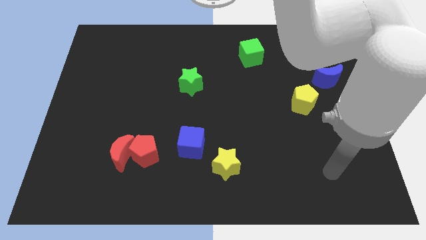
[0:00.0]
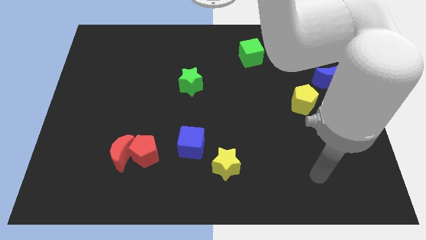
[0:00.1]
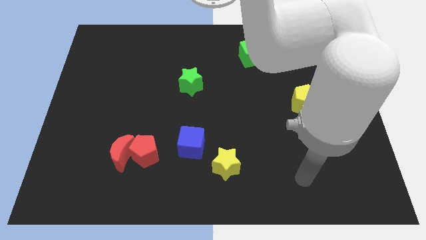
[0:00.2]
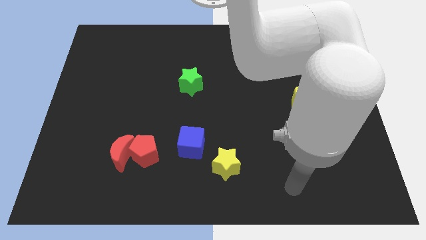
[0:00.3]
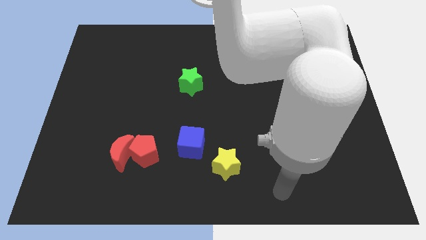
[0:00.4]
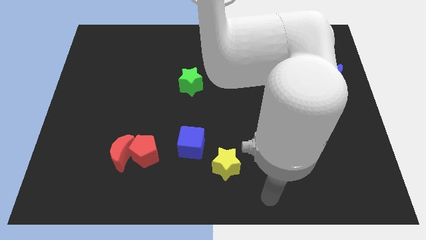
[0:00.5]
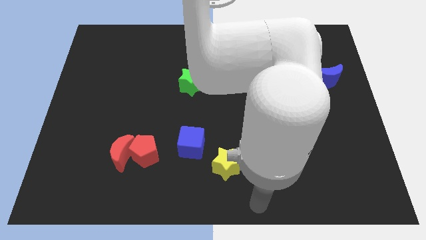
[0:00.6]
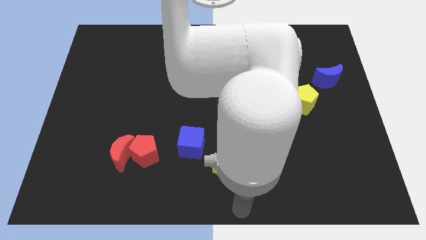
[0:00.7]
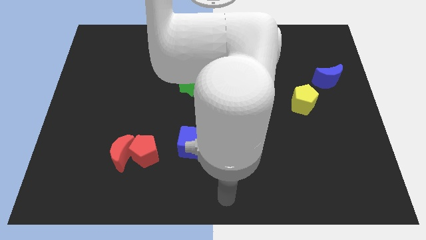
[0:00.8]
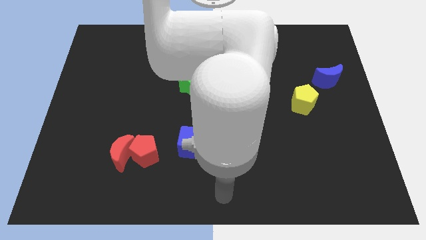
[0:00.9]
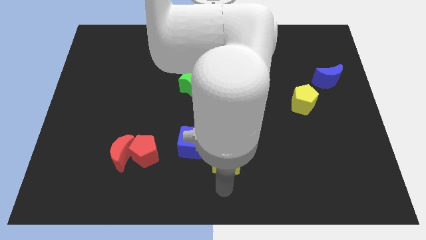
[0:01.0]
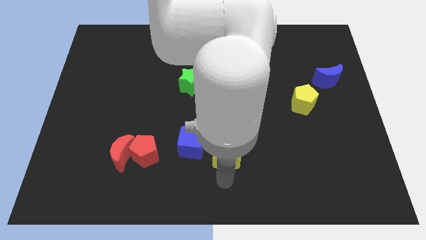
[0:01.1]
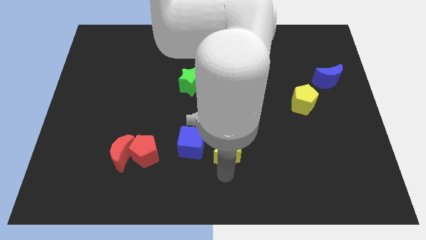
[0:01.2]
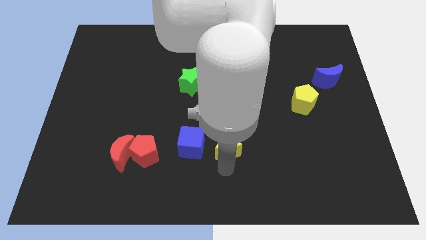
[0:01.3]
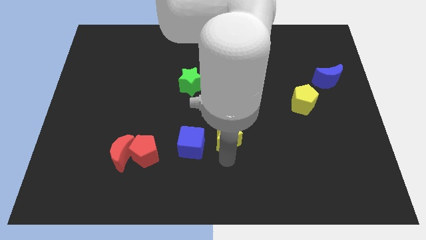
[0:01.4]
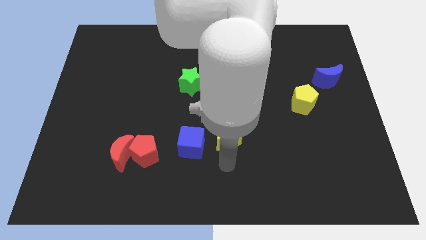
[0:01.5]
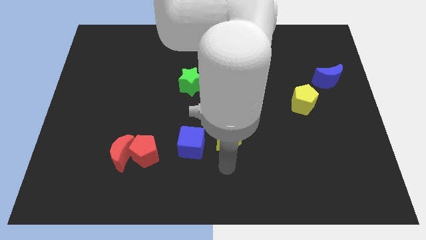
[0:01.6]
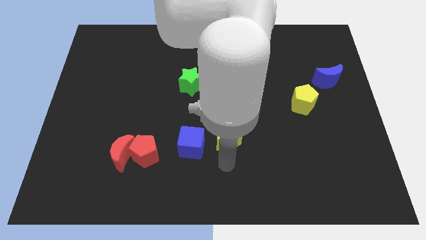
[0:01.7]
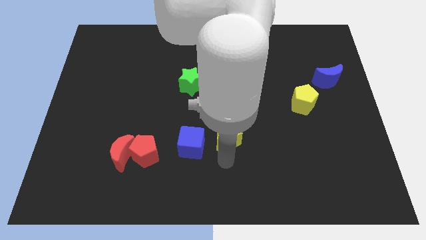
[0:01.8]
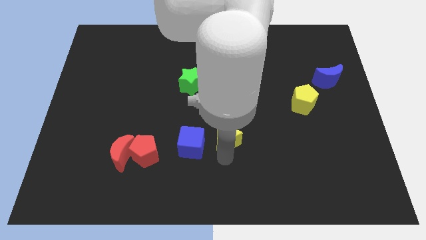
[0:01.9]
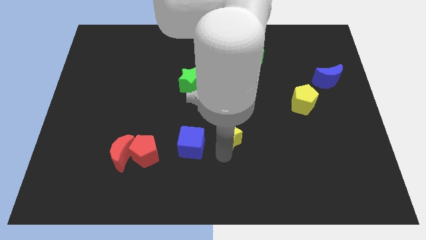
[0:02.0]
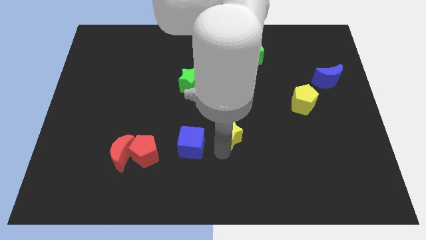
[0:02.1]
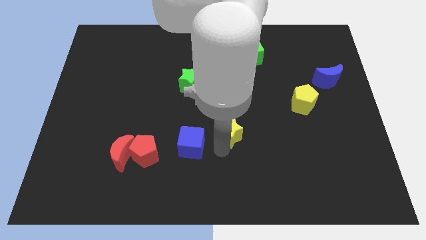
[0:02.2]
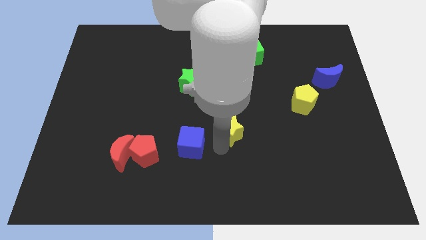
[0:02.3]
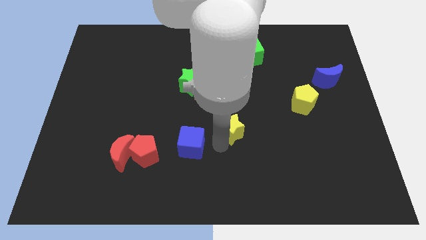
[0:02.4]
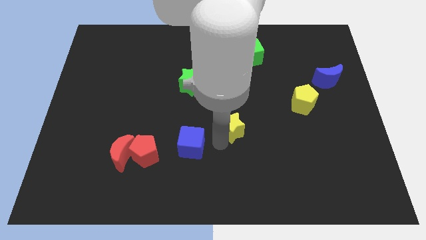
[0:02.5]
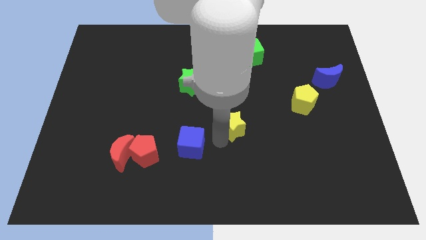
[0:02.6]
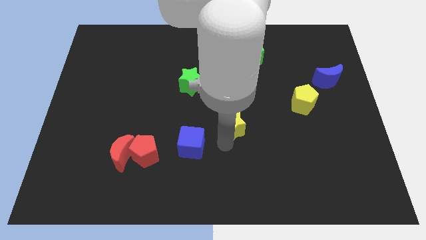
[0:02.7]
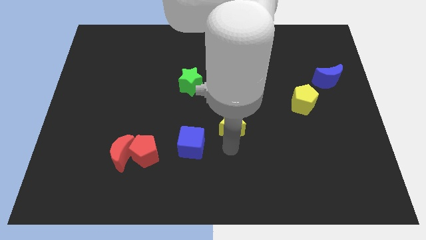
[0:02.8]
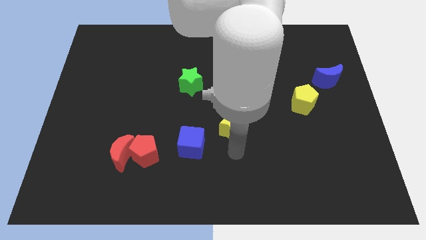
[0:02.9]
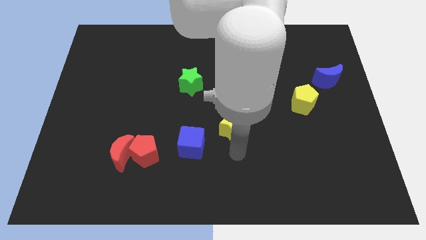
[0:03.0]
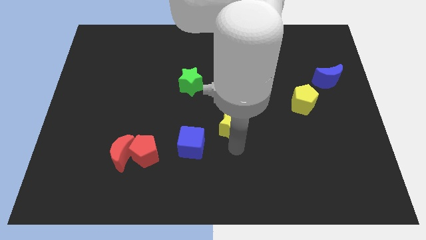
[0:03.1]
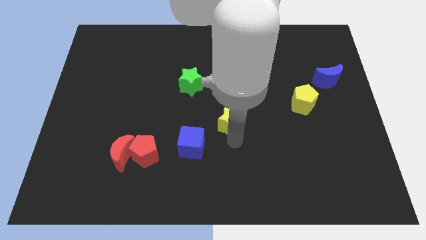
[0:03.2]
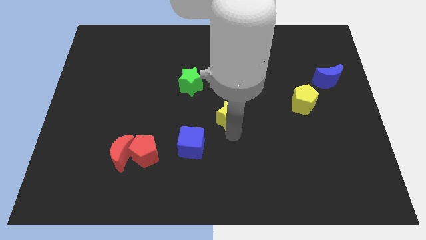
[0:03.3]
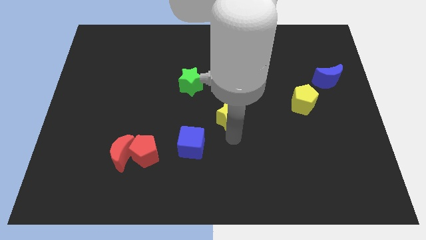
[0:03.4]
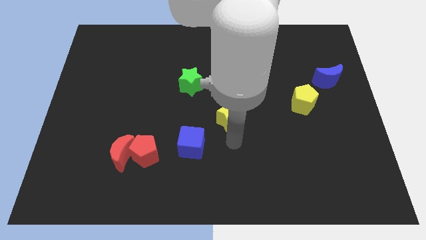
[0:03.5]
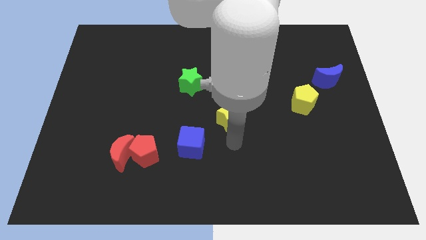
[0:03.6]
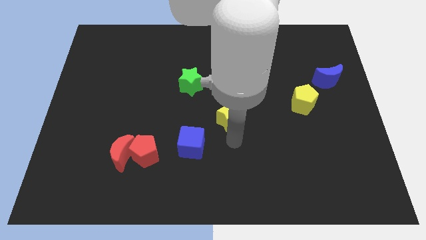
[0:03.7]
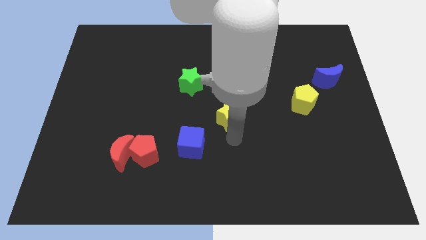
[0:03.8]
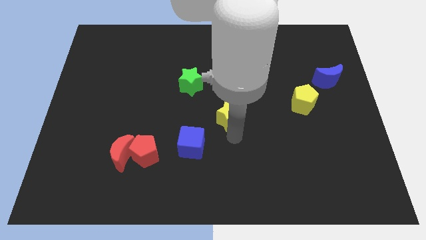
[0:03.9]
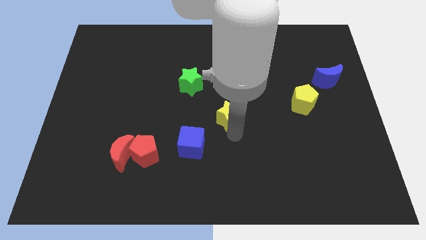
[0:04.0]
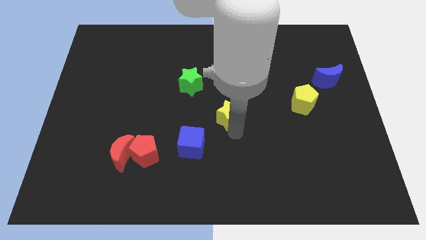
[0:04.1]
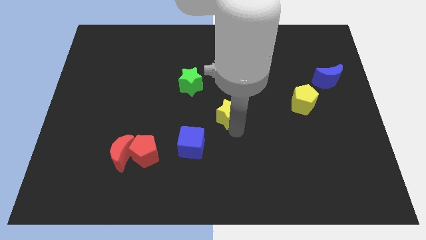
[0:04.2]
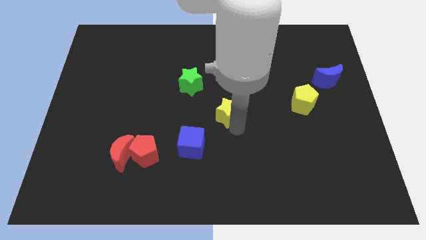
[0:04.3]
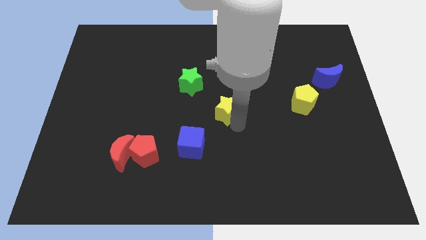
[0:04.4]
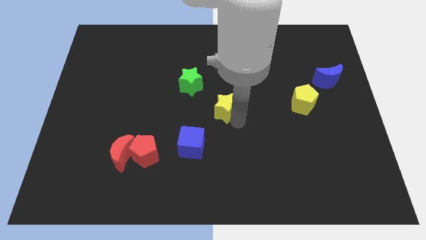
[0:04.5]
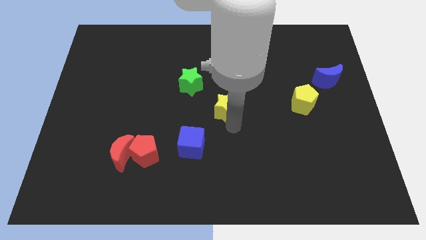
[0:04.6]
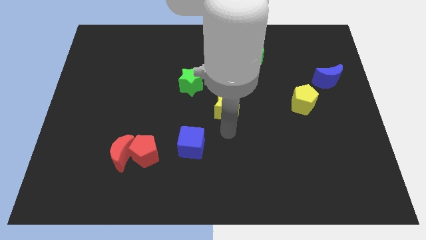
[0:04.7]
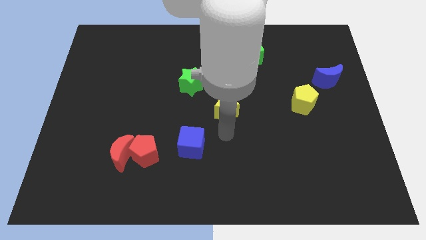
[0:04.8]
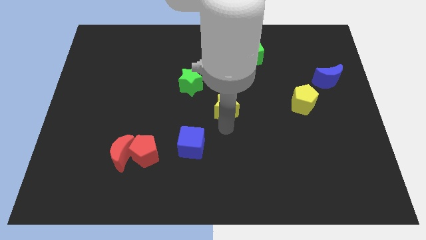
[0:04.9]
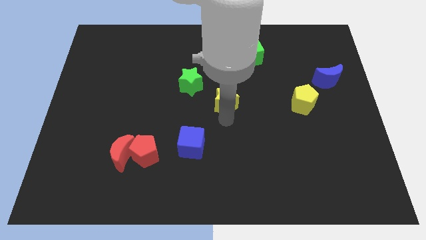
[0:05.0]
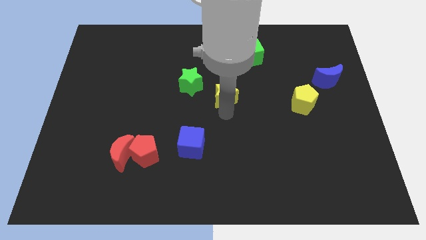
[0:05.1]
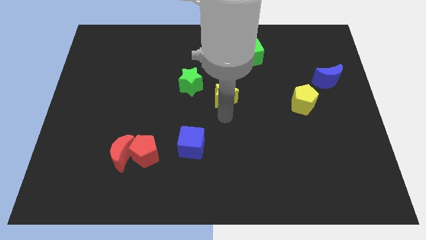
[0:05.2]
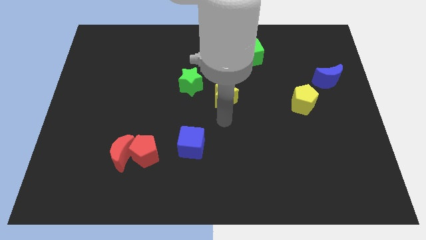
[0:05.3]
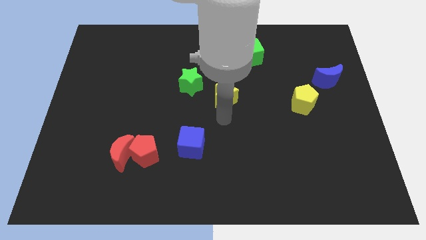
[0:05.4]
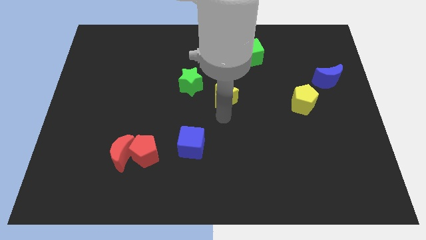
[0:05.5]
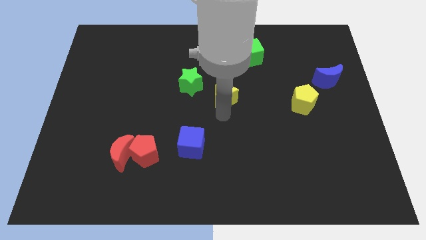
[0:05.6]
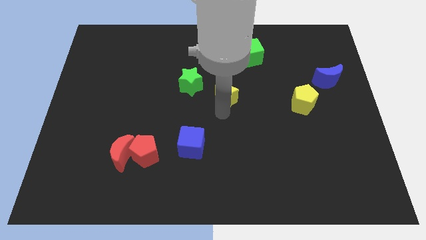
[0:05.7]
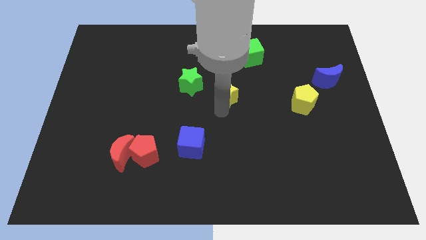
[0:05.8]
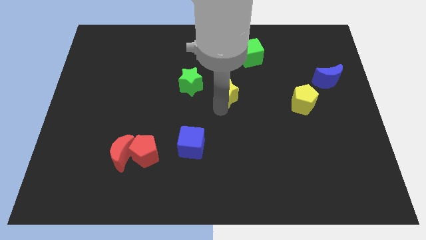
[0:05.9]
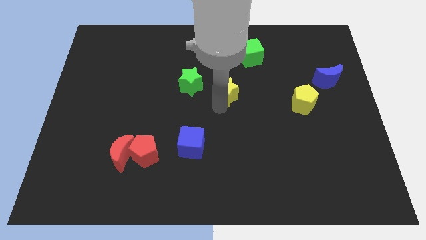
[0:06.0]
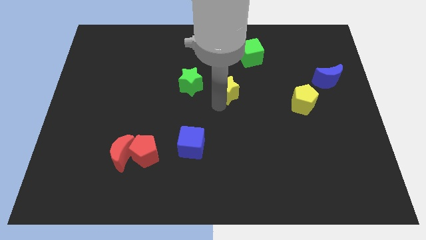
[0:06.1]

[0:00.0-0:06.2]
push the yellow star up

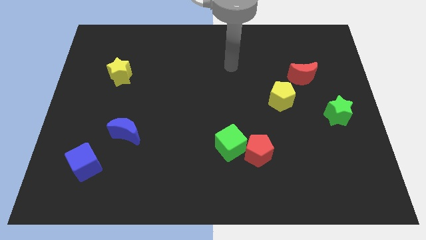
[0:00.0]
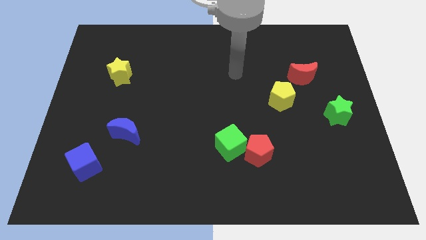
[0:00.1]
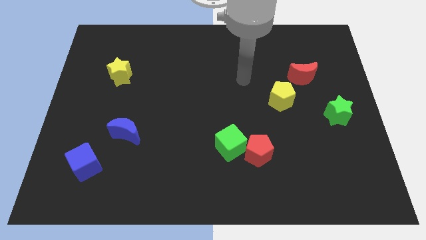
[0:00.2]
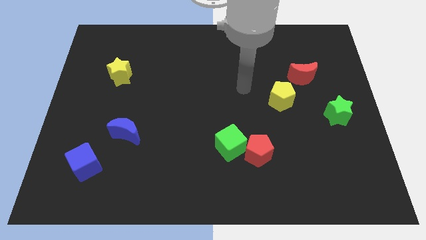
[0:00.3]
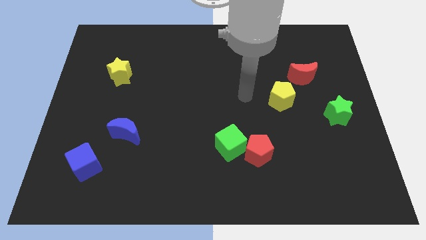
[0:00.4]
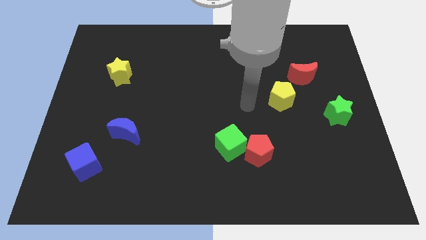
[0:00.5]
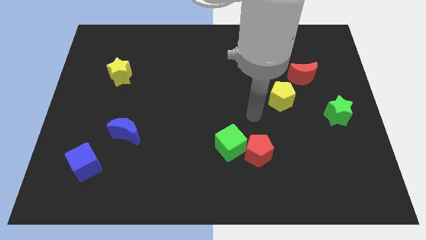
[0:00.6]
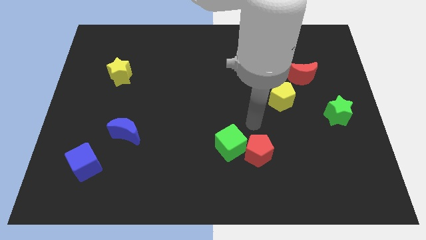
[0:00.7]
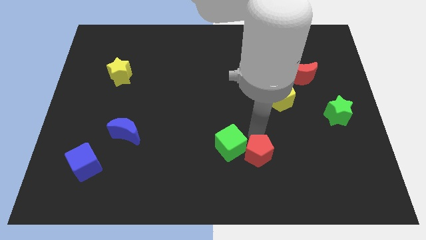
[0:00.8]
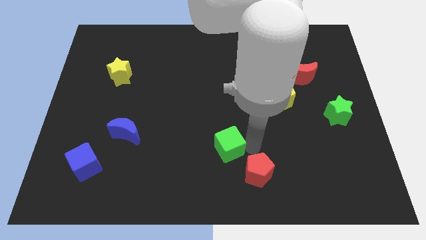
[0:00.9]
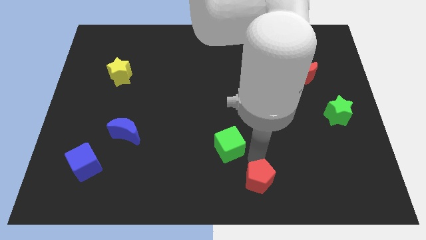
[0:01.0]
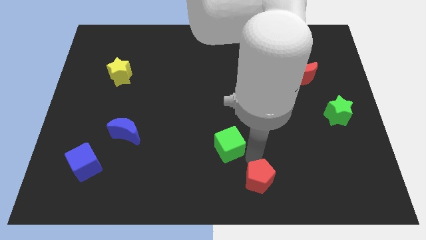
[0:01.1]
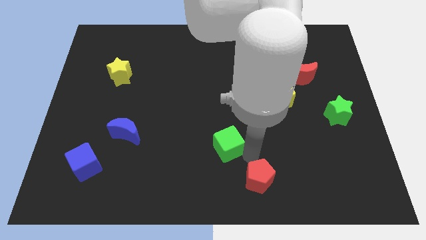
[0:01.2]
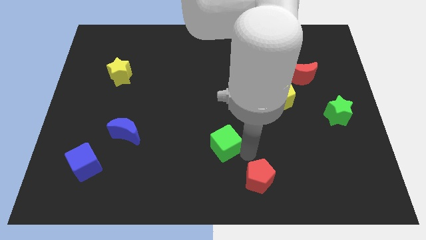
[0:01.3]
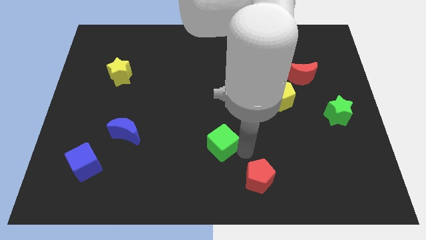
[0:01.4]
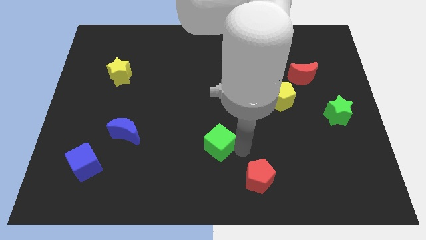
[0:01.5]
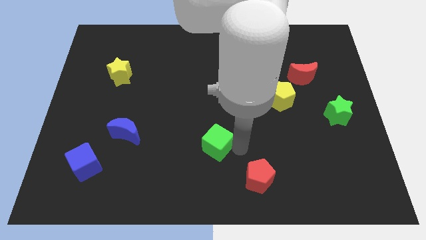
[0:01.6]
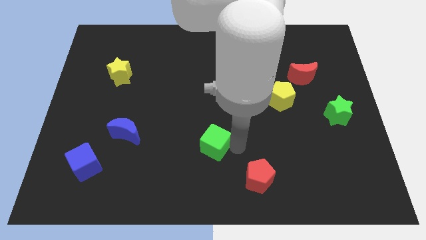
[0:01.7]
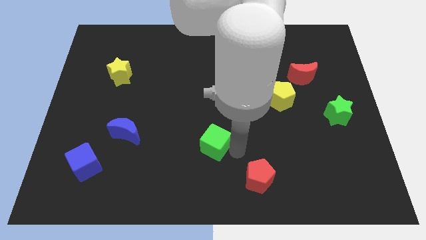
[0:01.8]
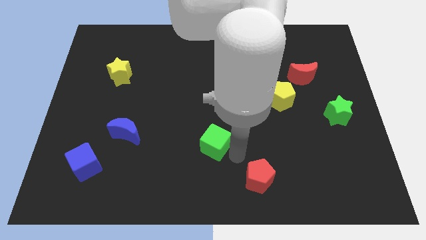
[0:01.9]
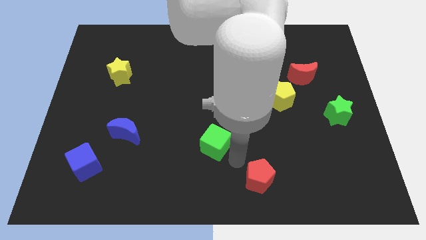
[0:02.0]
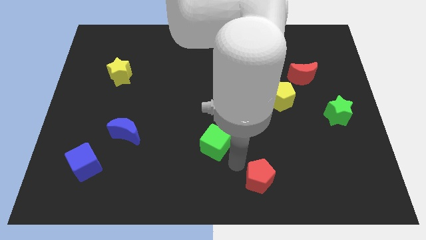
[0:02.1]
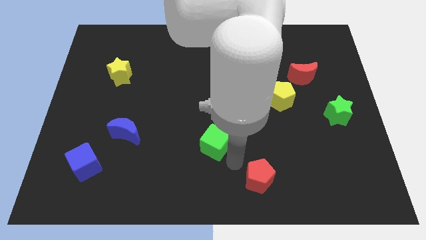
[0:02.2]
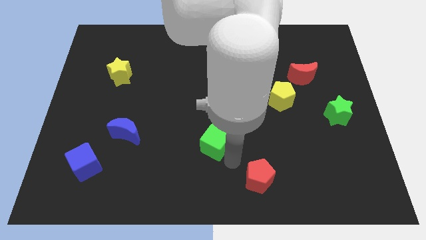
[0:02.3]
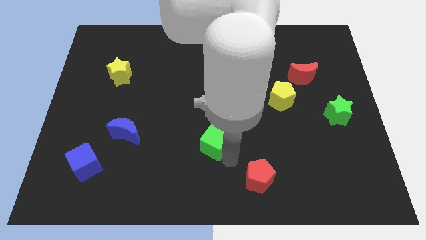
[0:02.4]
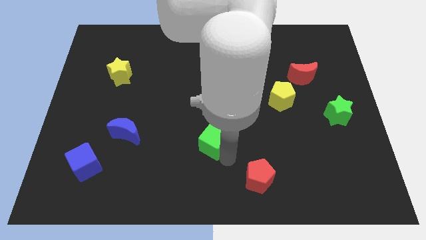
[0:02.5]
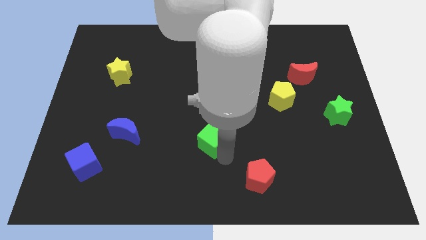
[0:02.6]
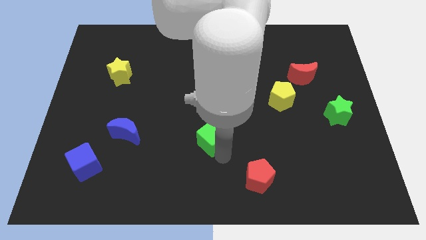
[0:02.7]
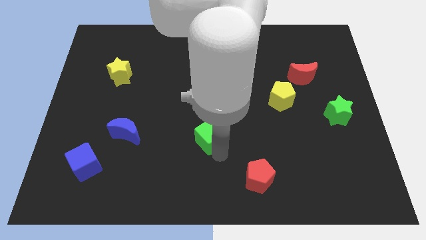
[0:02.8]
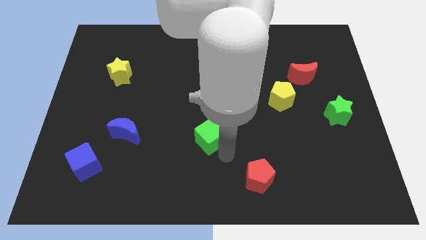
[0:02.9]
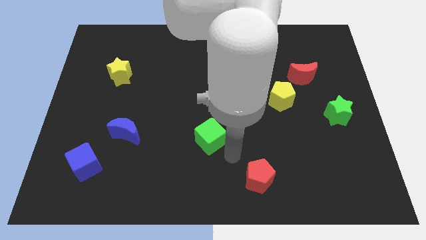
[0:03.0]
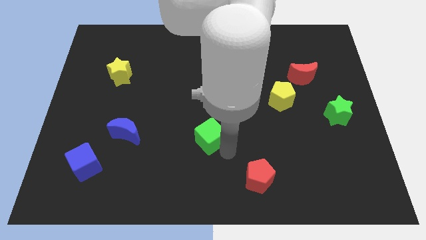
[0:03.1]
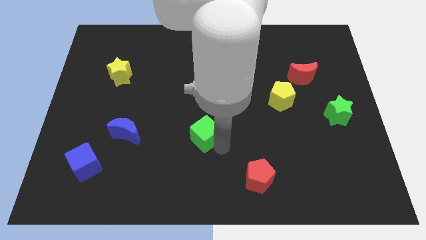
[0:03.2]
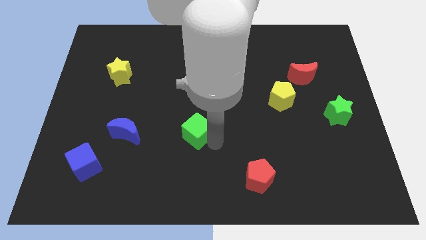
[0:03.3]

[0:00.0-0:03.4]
slide the green cube a little up and to the left
